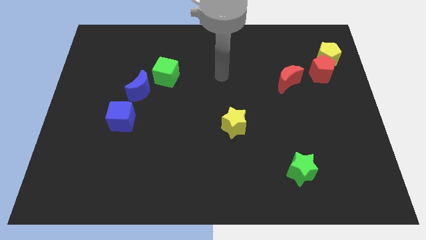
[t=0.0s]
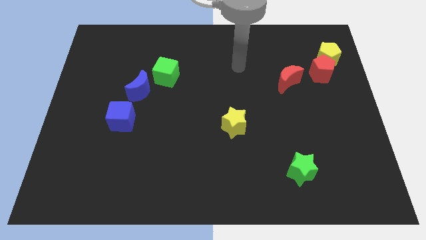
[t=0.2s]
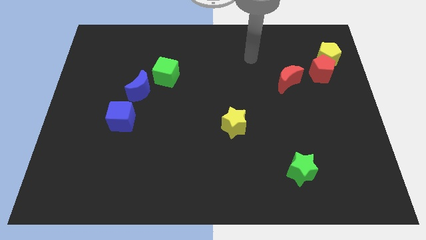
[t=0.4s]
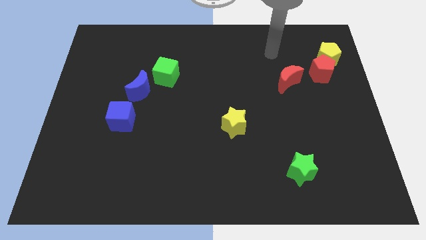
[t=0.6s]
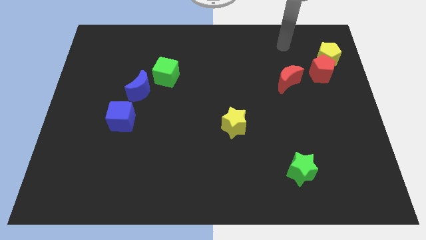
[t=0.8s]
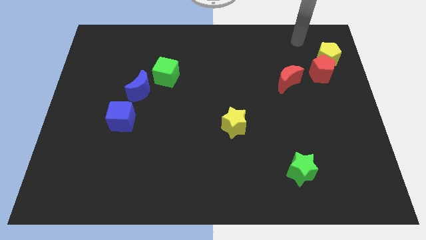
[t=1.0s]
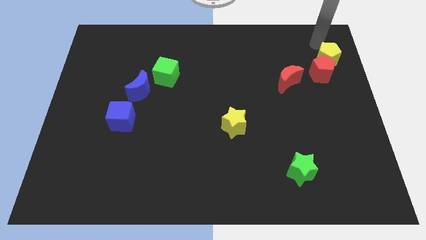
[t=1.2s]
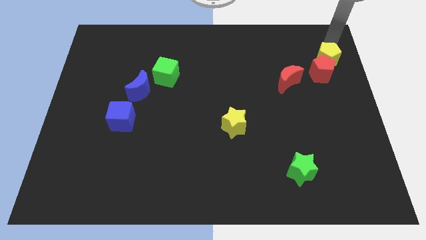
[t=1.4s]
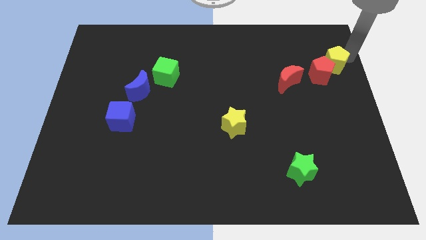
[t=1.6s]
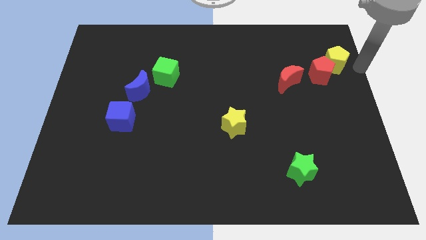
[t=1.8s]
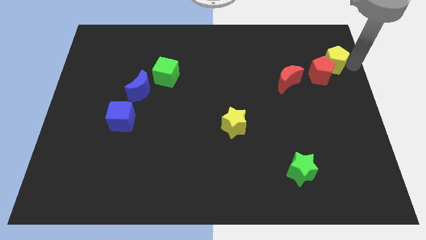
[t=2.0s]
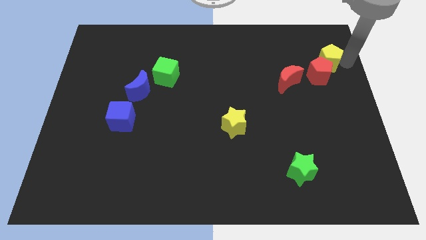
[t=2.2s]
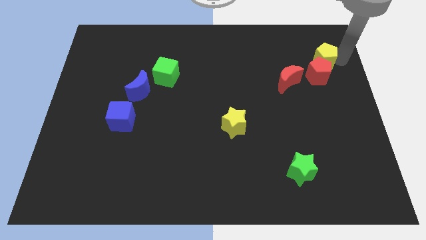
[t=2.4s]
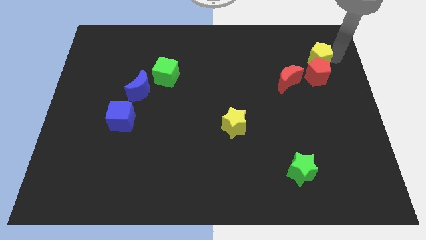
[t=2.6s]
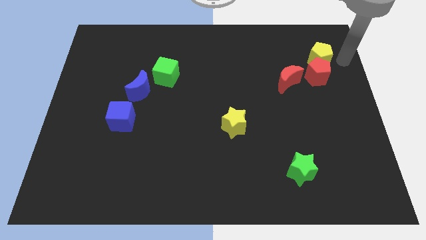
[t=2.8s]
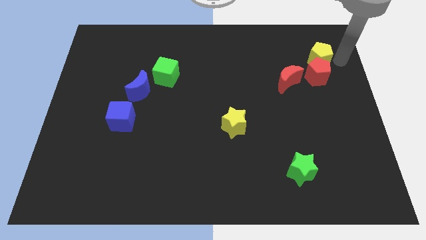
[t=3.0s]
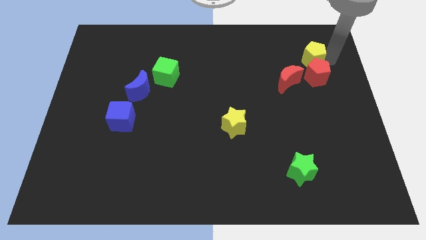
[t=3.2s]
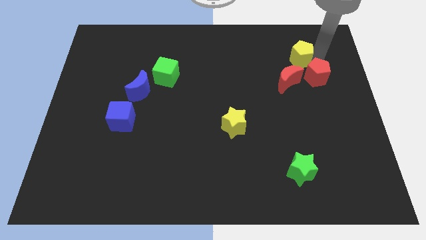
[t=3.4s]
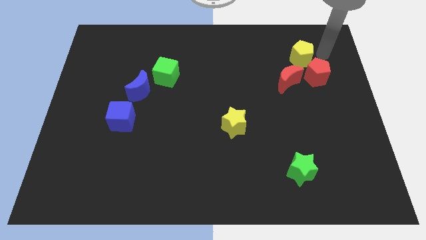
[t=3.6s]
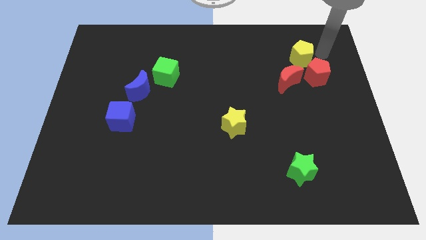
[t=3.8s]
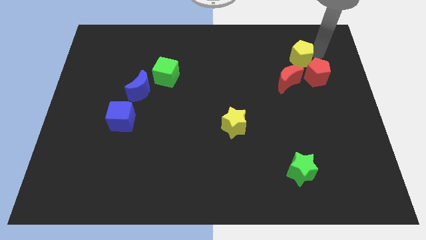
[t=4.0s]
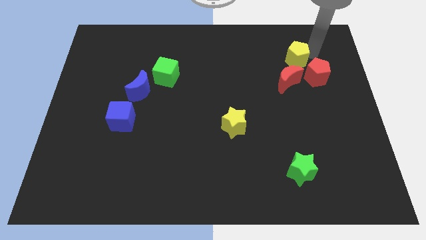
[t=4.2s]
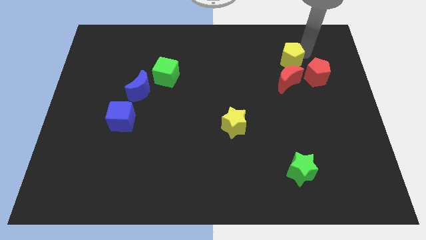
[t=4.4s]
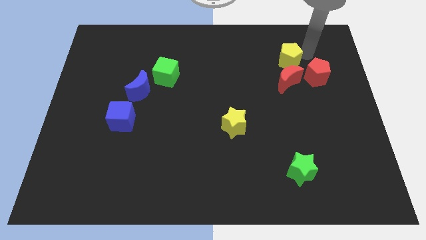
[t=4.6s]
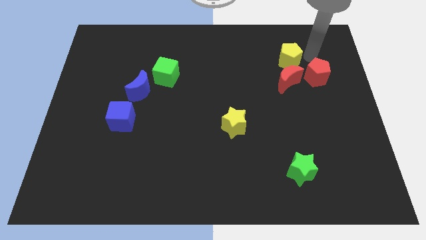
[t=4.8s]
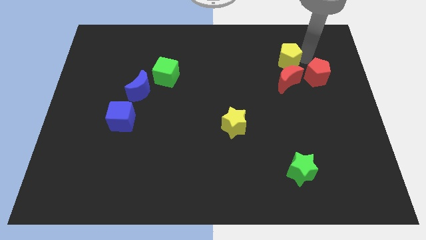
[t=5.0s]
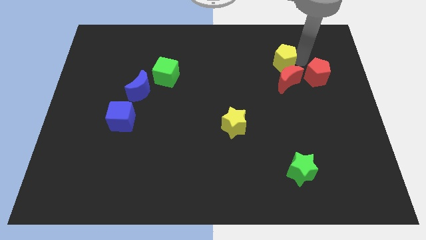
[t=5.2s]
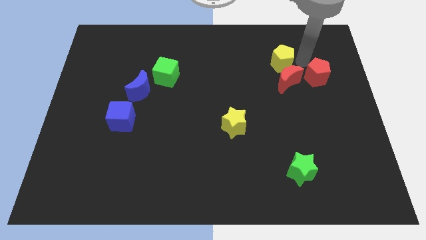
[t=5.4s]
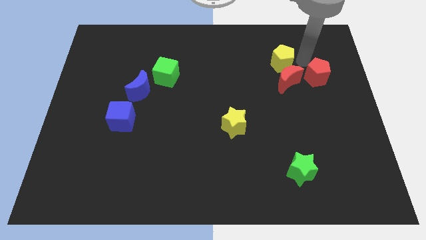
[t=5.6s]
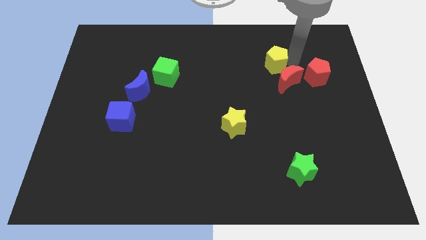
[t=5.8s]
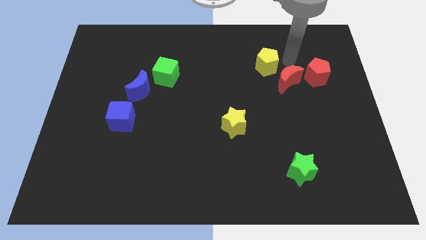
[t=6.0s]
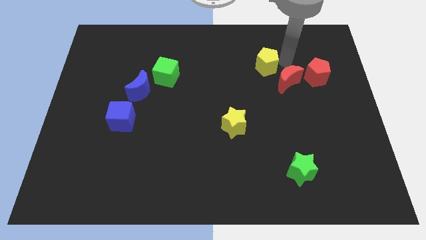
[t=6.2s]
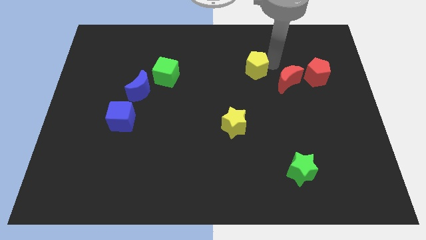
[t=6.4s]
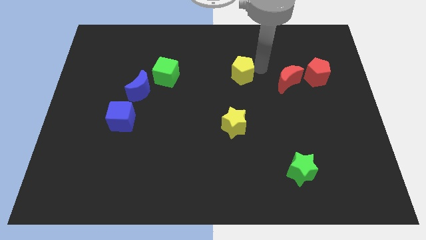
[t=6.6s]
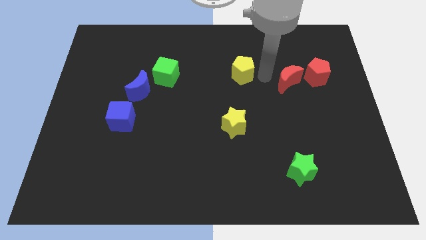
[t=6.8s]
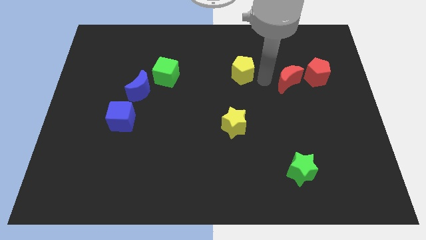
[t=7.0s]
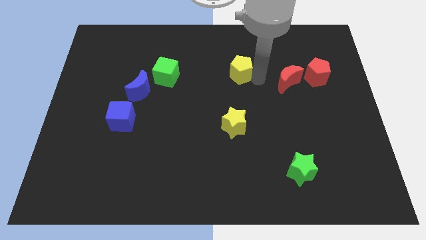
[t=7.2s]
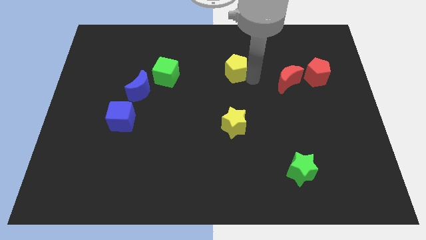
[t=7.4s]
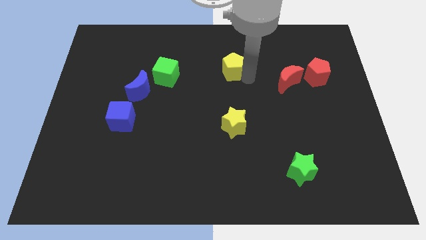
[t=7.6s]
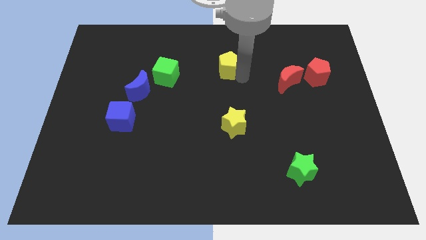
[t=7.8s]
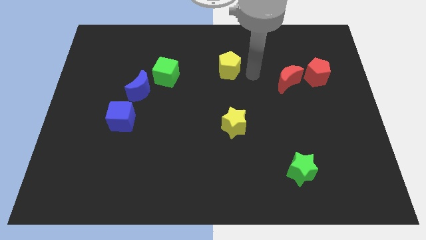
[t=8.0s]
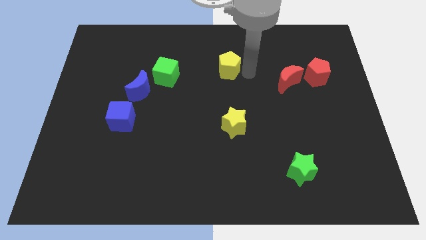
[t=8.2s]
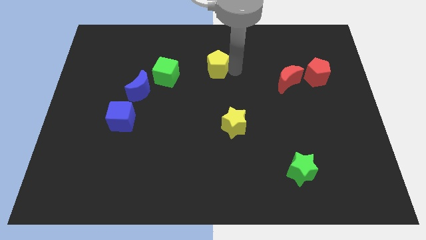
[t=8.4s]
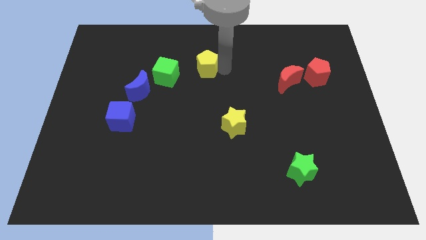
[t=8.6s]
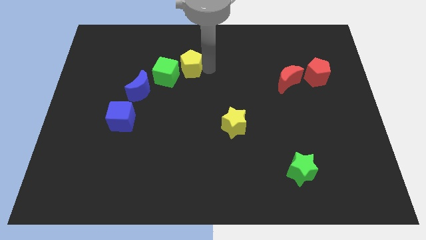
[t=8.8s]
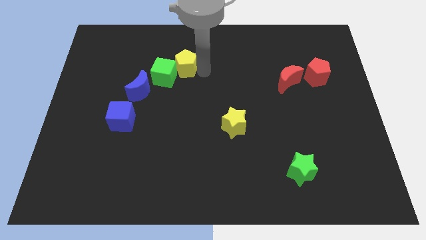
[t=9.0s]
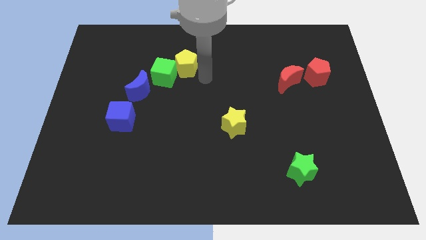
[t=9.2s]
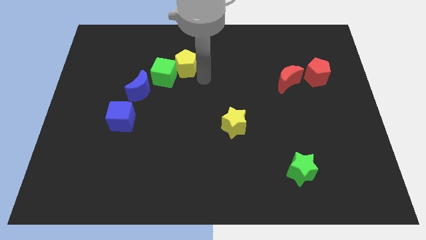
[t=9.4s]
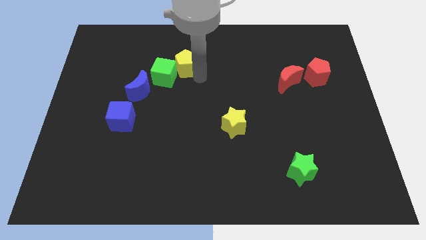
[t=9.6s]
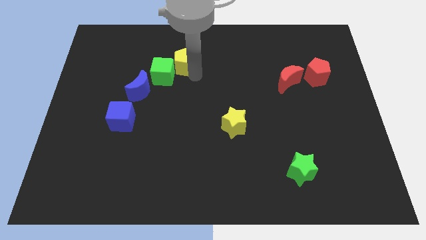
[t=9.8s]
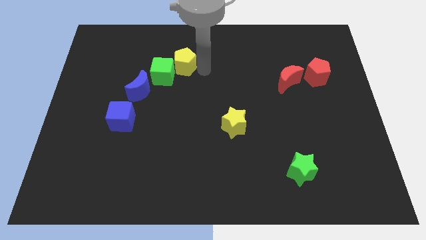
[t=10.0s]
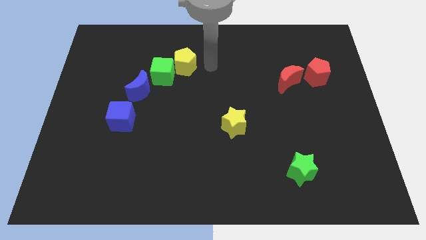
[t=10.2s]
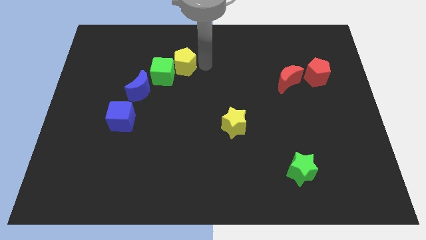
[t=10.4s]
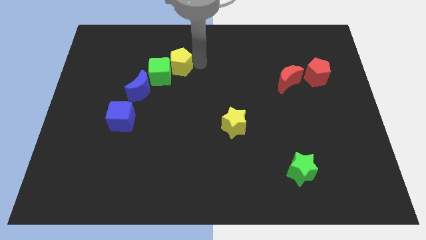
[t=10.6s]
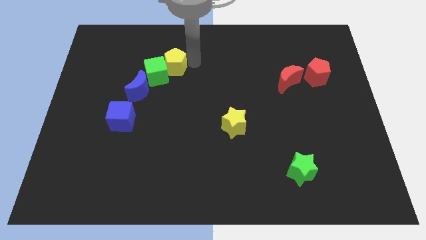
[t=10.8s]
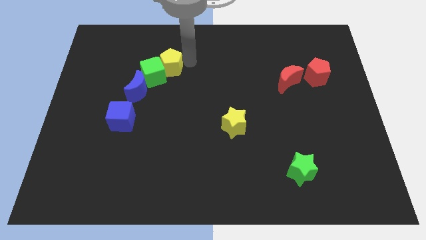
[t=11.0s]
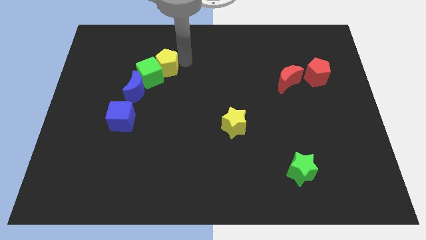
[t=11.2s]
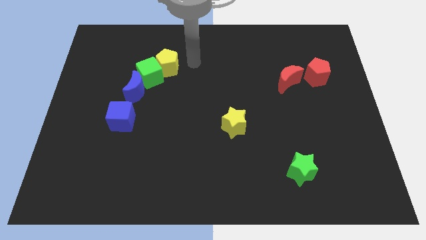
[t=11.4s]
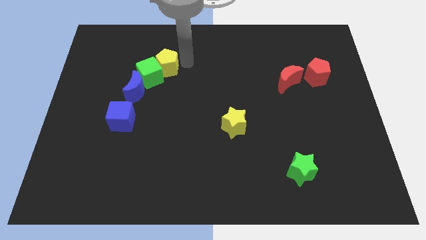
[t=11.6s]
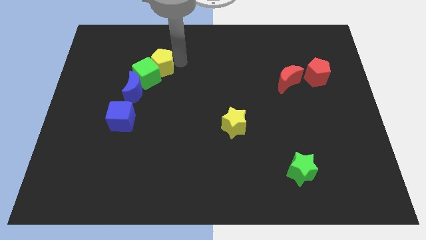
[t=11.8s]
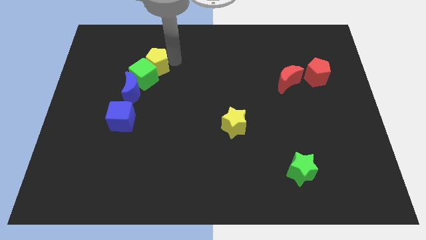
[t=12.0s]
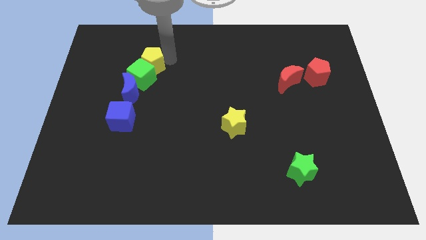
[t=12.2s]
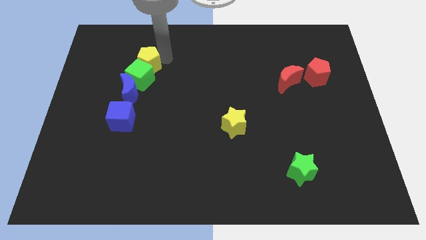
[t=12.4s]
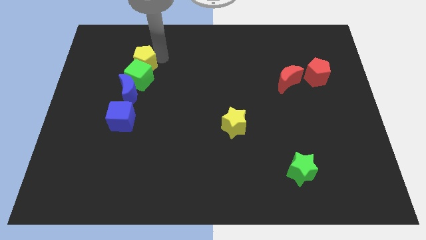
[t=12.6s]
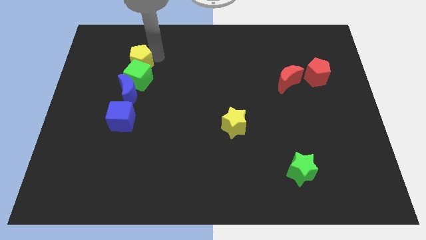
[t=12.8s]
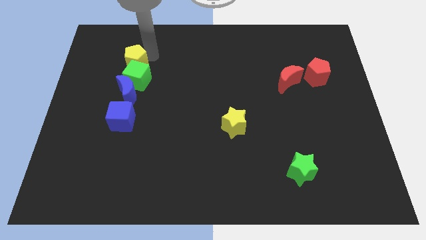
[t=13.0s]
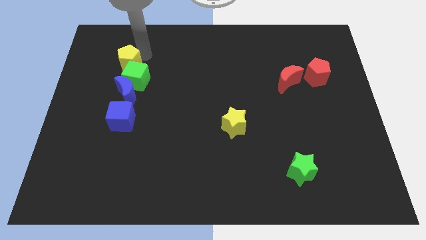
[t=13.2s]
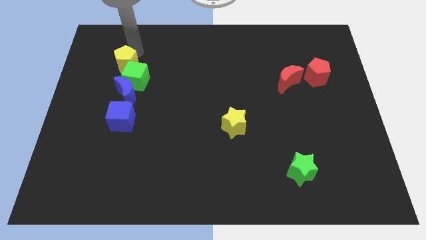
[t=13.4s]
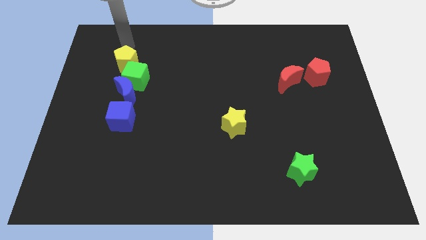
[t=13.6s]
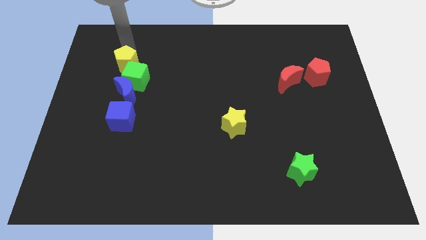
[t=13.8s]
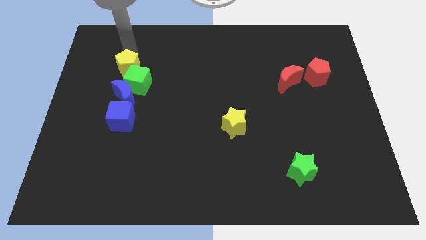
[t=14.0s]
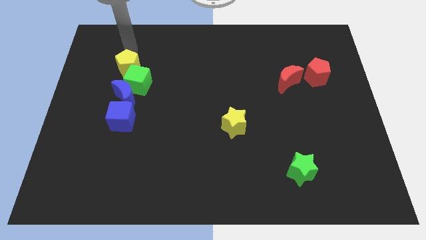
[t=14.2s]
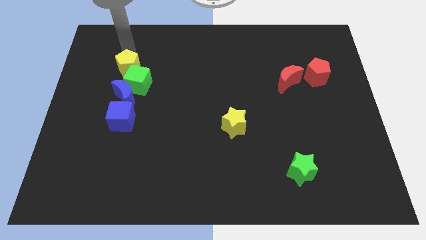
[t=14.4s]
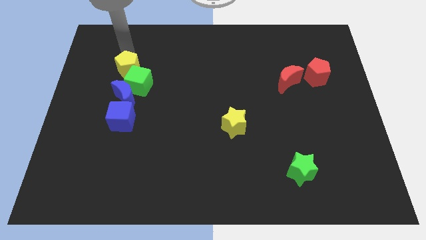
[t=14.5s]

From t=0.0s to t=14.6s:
push the yellow pentagon to the top of the blue cube

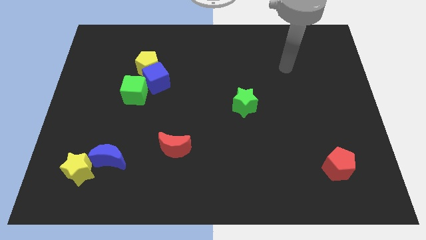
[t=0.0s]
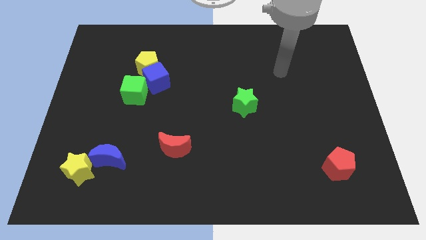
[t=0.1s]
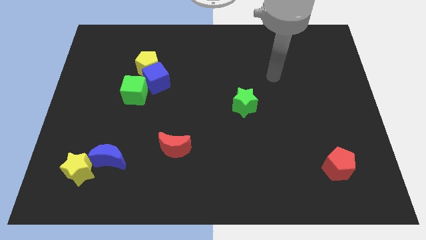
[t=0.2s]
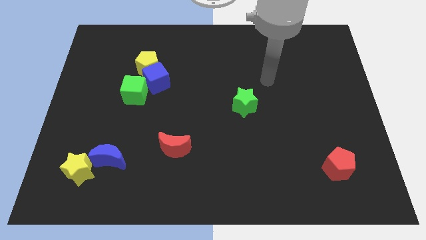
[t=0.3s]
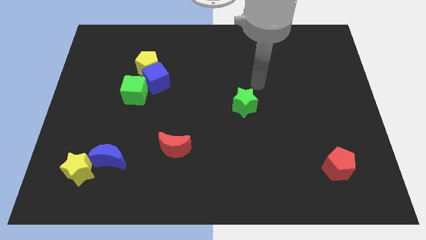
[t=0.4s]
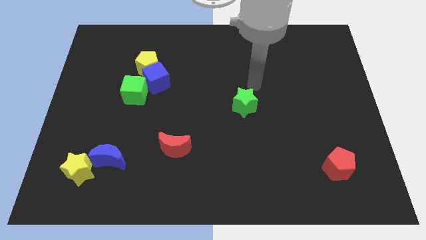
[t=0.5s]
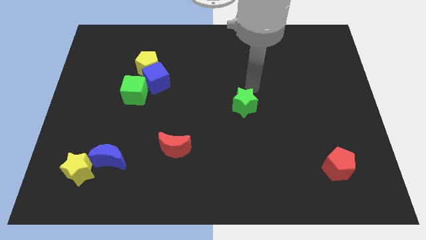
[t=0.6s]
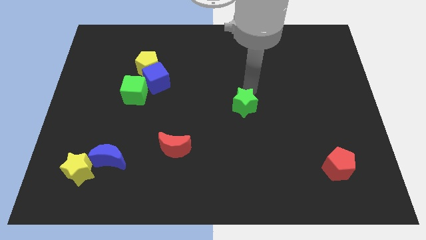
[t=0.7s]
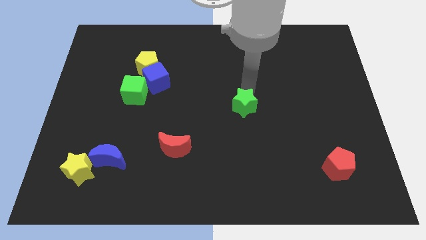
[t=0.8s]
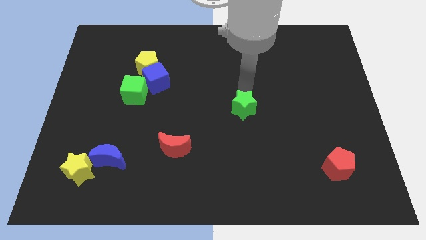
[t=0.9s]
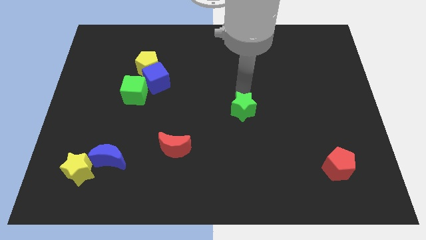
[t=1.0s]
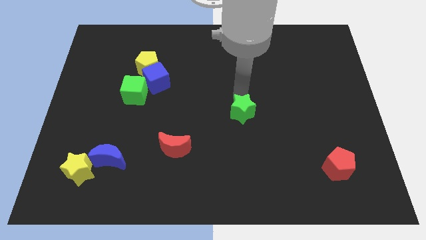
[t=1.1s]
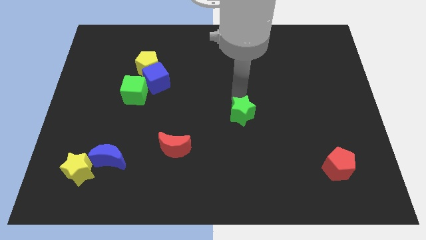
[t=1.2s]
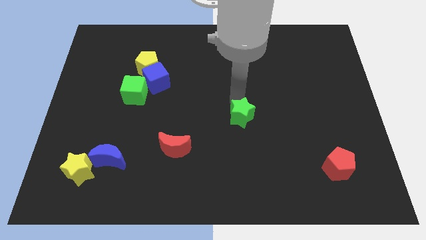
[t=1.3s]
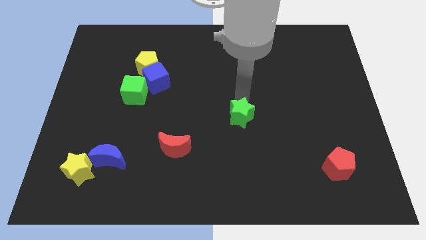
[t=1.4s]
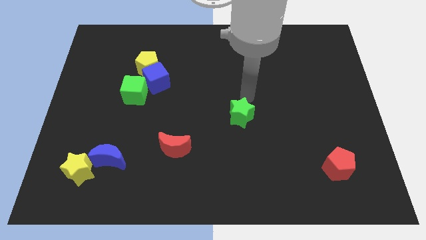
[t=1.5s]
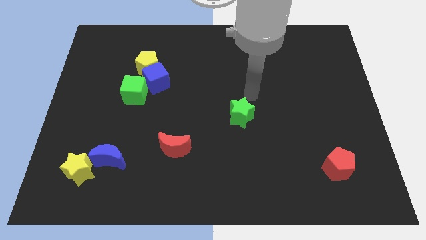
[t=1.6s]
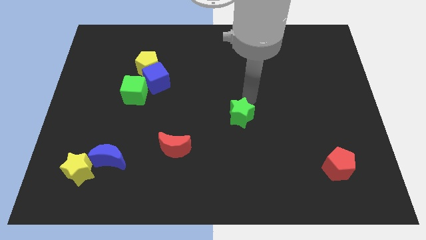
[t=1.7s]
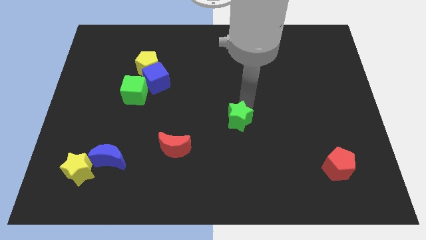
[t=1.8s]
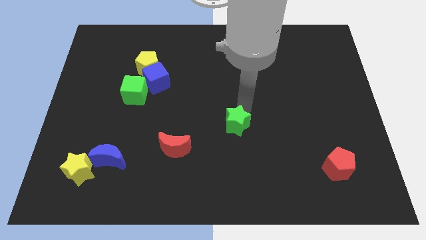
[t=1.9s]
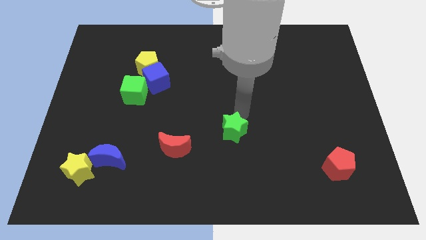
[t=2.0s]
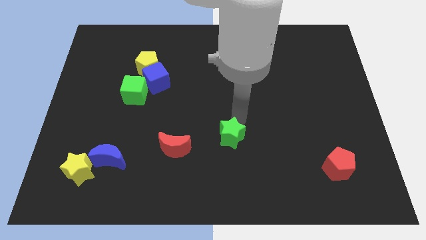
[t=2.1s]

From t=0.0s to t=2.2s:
slide the green star to the right of the red moon
